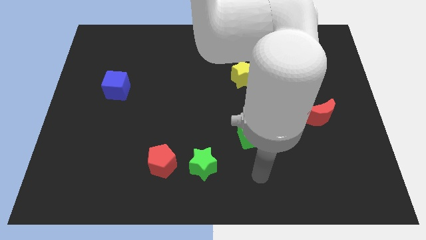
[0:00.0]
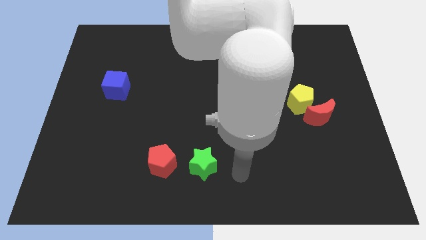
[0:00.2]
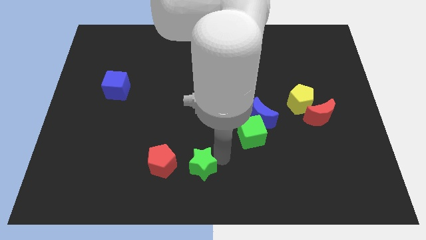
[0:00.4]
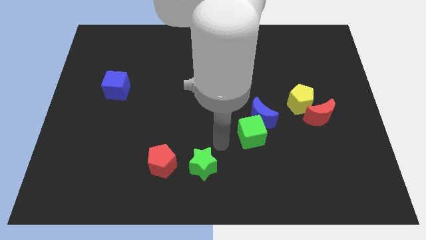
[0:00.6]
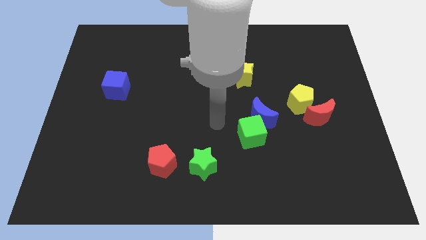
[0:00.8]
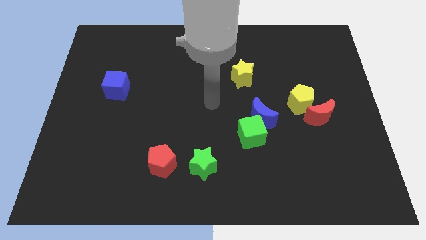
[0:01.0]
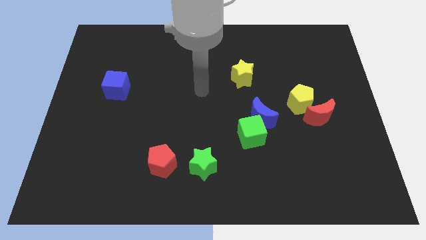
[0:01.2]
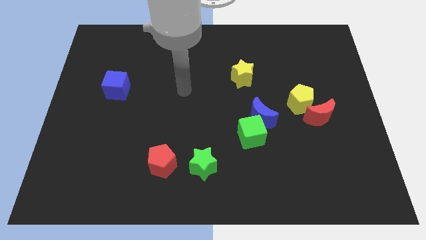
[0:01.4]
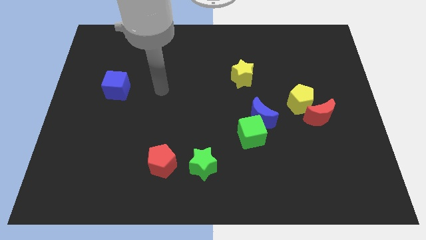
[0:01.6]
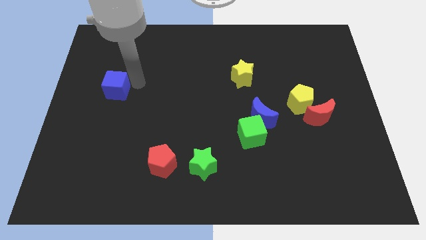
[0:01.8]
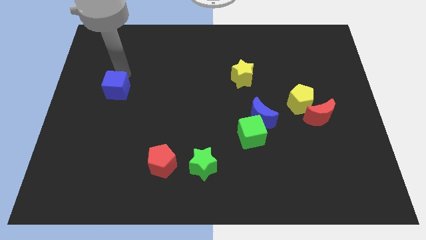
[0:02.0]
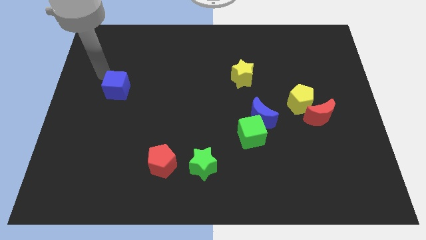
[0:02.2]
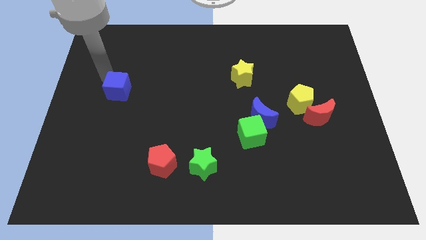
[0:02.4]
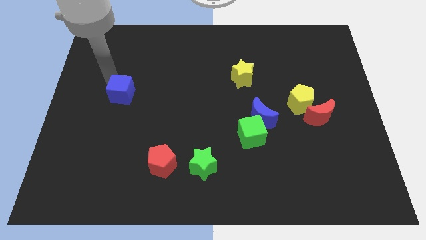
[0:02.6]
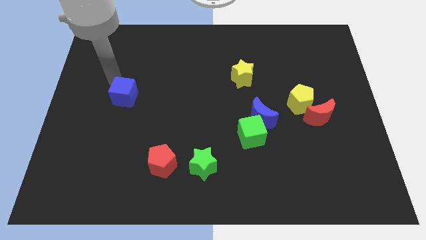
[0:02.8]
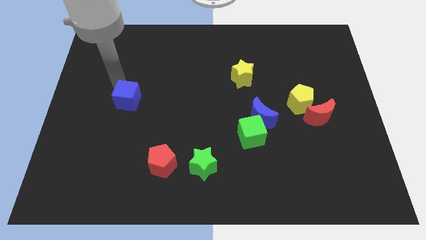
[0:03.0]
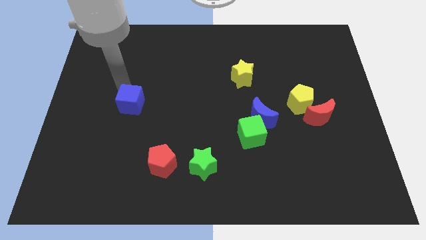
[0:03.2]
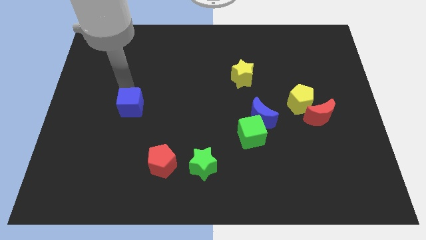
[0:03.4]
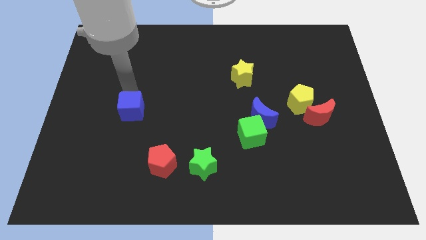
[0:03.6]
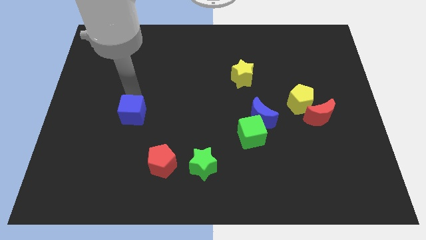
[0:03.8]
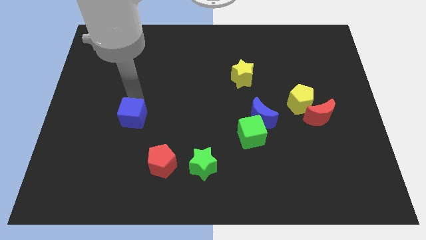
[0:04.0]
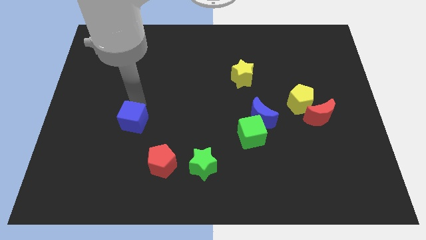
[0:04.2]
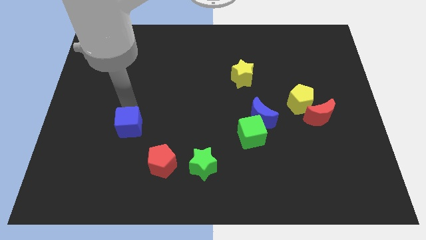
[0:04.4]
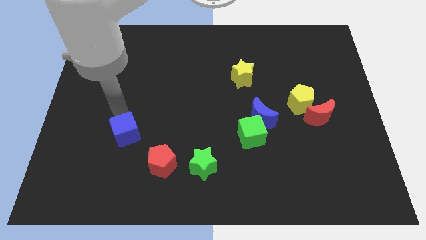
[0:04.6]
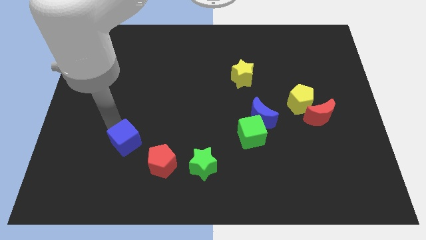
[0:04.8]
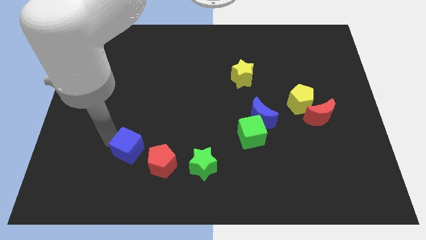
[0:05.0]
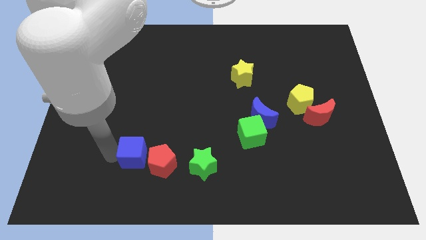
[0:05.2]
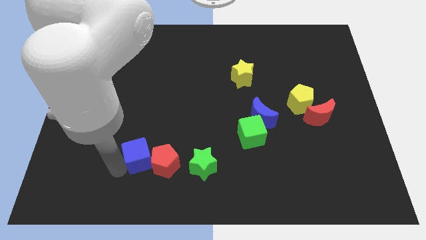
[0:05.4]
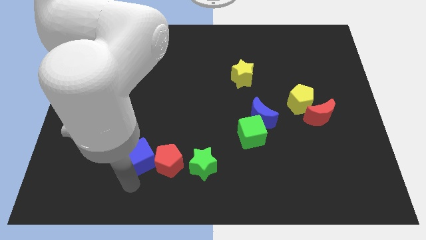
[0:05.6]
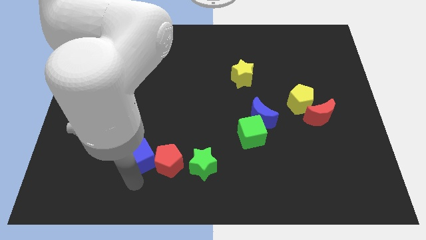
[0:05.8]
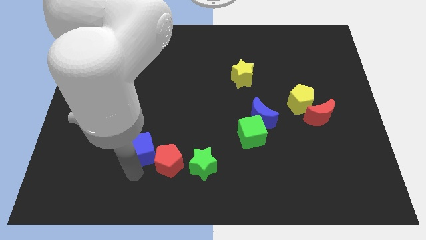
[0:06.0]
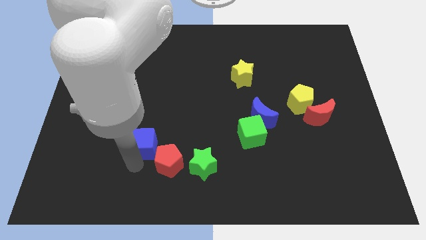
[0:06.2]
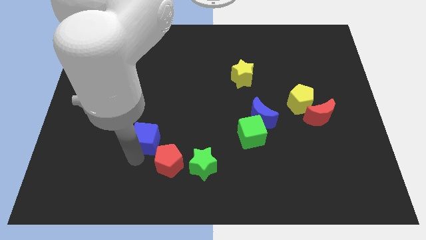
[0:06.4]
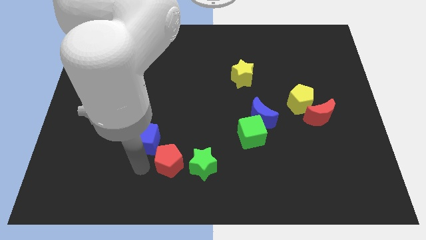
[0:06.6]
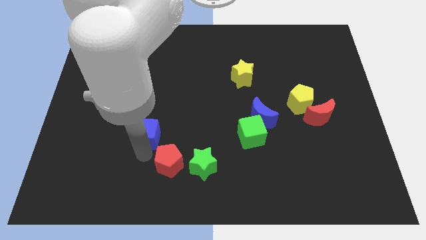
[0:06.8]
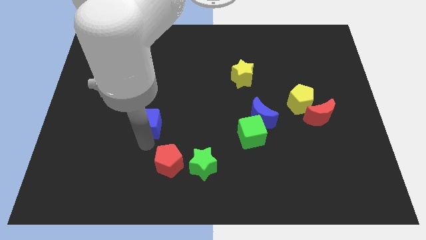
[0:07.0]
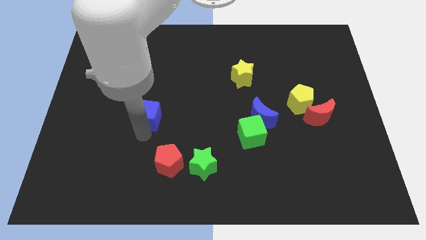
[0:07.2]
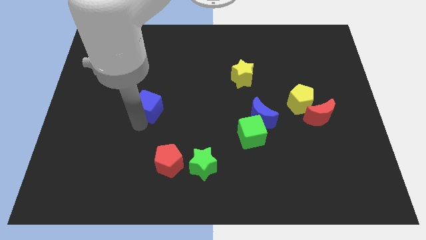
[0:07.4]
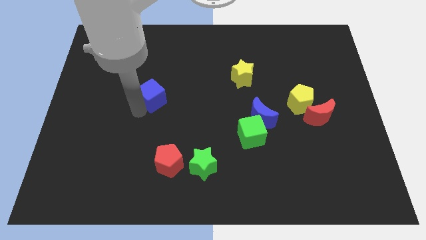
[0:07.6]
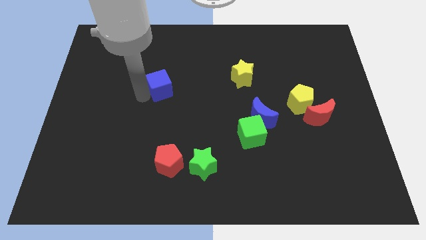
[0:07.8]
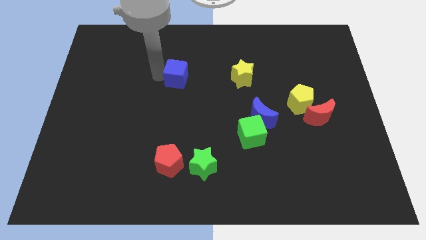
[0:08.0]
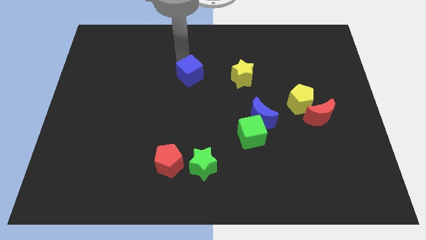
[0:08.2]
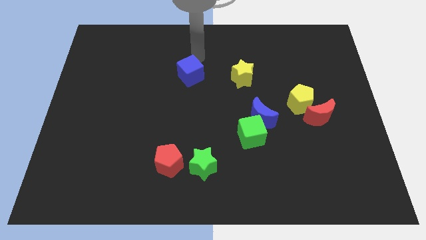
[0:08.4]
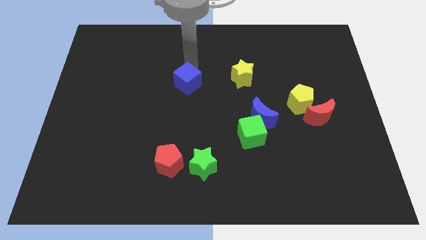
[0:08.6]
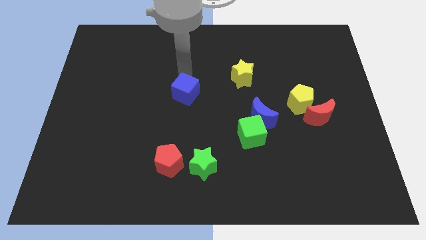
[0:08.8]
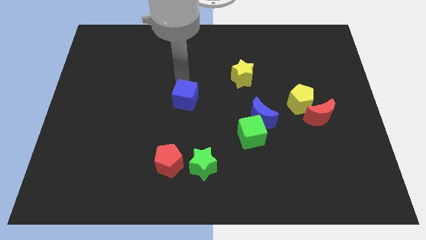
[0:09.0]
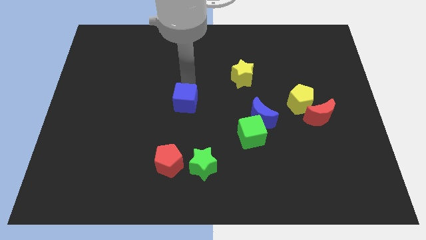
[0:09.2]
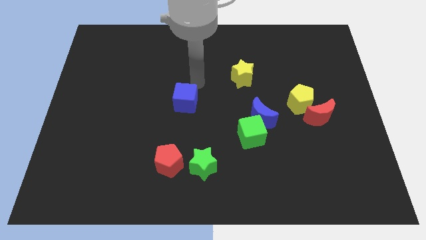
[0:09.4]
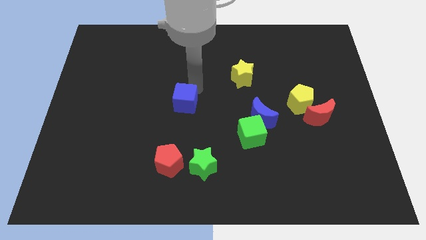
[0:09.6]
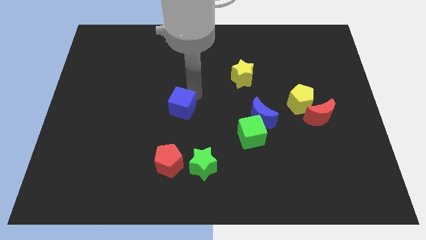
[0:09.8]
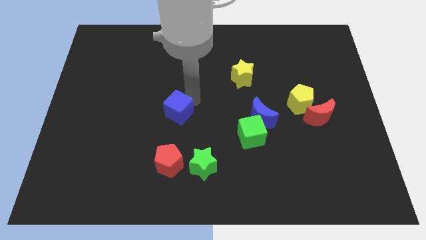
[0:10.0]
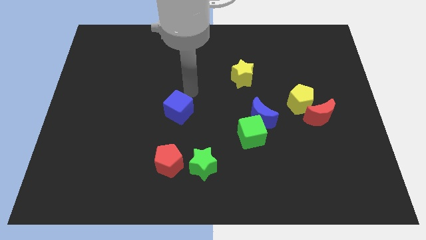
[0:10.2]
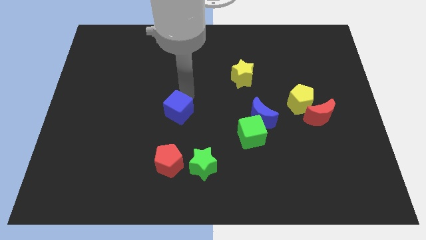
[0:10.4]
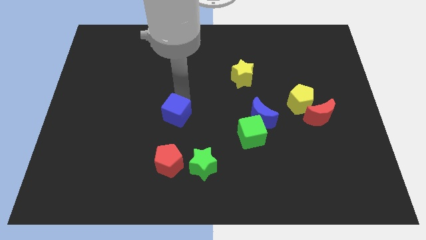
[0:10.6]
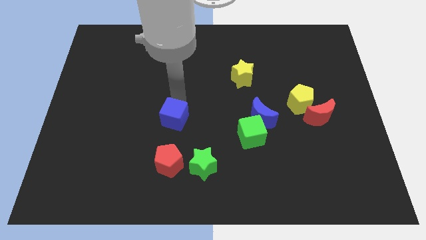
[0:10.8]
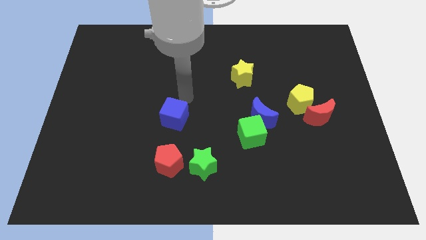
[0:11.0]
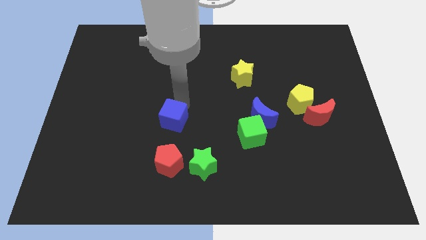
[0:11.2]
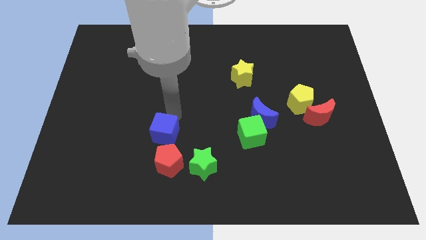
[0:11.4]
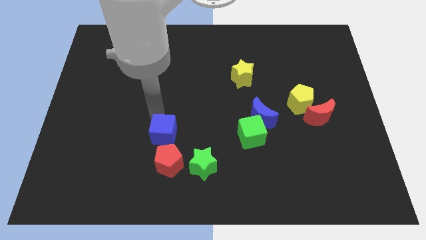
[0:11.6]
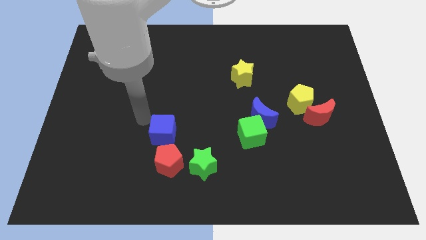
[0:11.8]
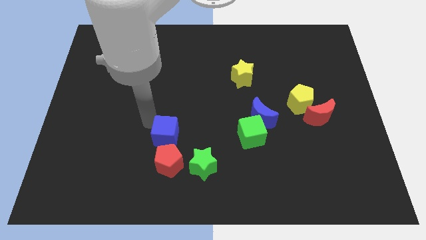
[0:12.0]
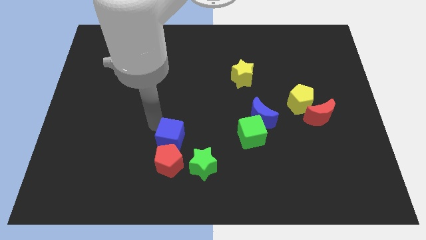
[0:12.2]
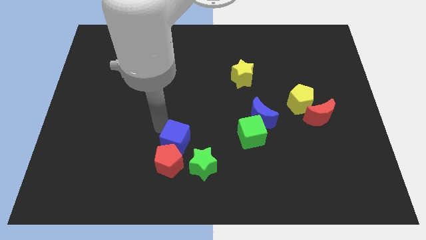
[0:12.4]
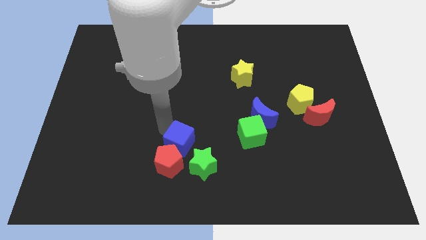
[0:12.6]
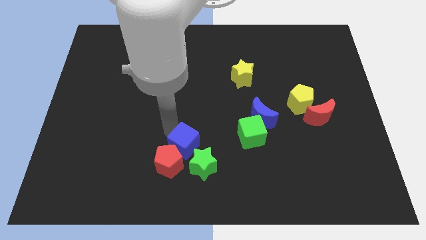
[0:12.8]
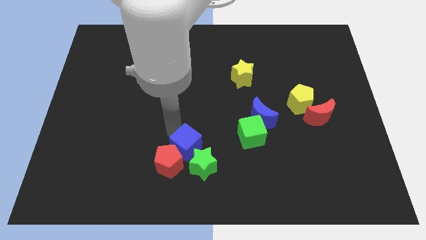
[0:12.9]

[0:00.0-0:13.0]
put the blue cube towards the green star
